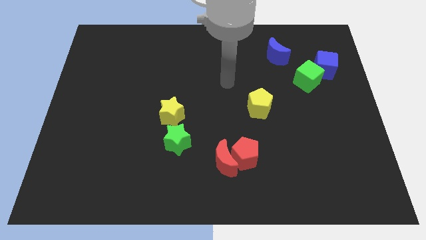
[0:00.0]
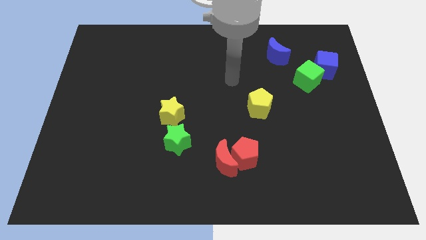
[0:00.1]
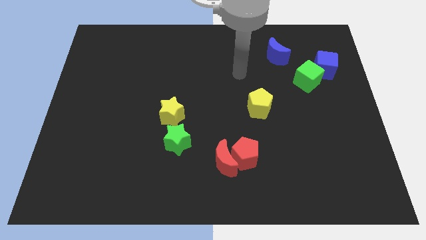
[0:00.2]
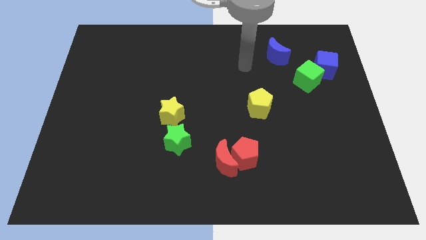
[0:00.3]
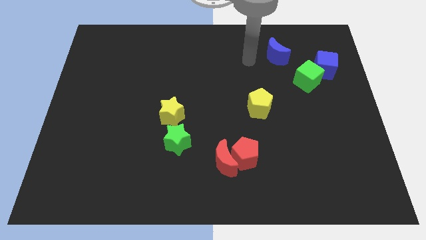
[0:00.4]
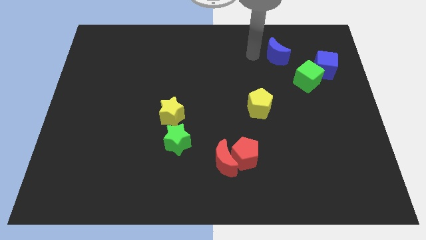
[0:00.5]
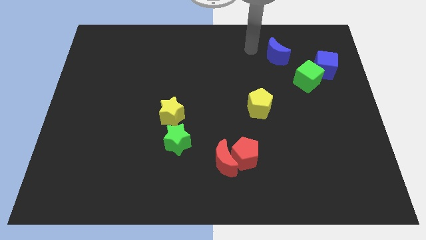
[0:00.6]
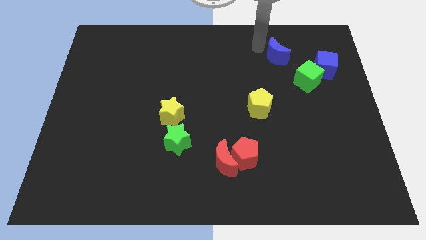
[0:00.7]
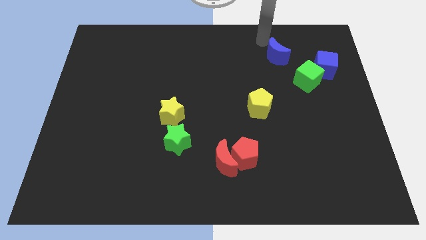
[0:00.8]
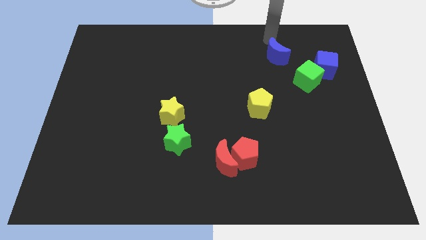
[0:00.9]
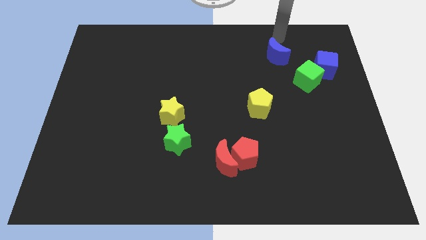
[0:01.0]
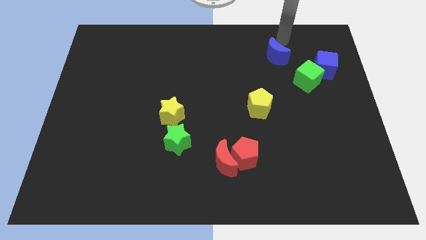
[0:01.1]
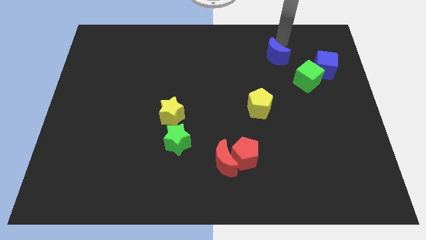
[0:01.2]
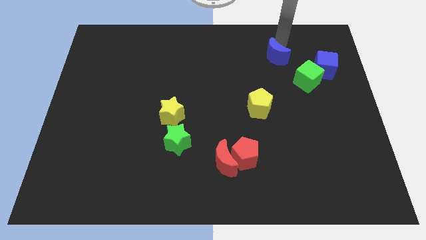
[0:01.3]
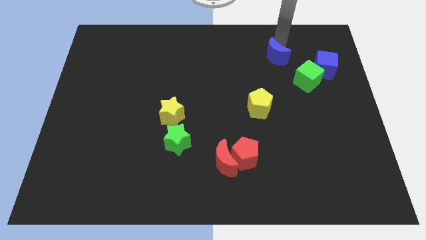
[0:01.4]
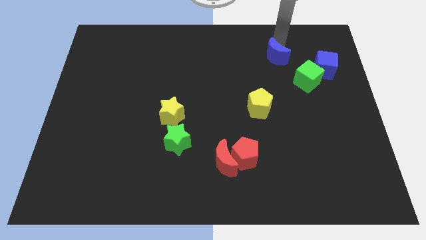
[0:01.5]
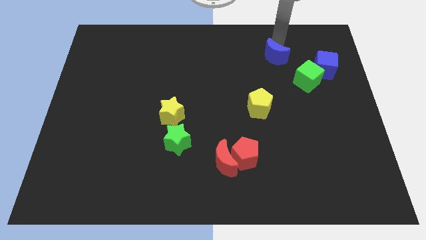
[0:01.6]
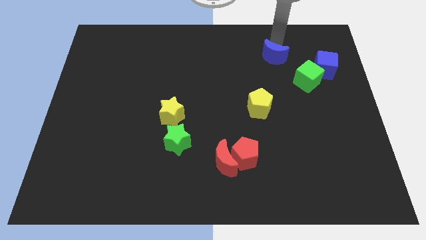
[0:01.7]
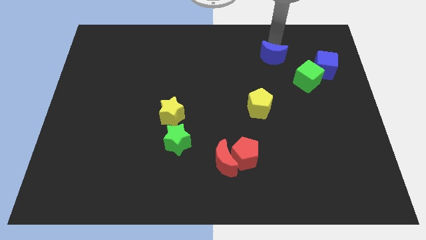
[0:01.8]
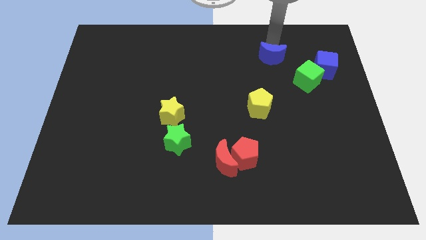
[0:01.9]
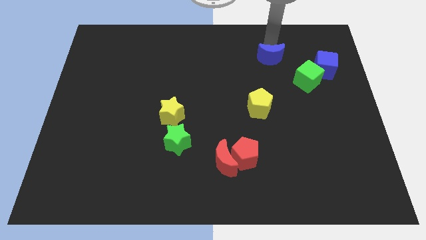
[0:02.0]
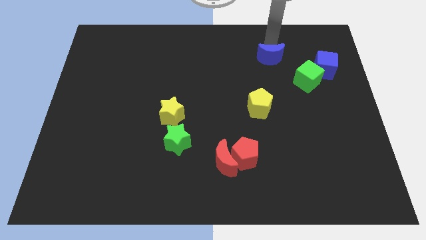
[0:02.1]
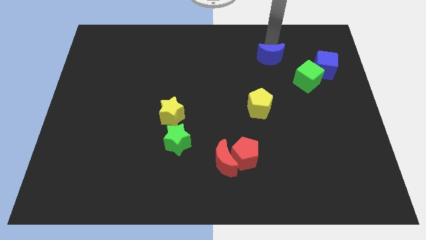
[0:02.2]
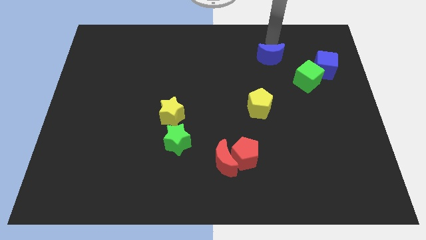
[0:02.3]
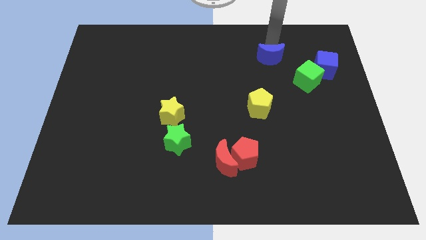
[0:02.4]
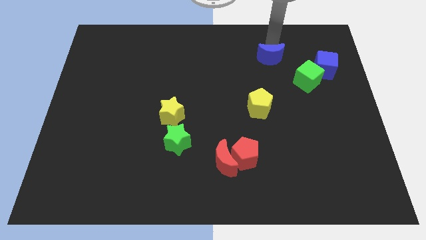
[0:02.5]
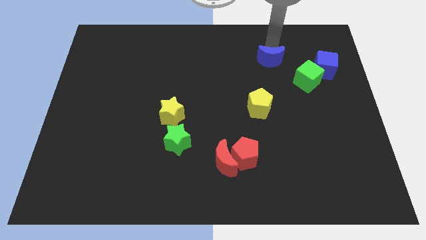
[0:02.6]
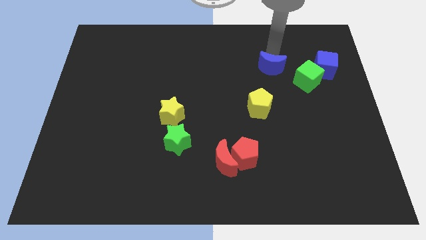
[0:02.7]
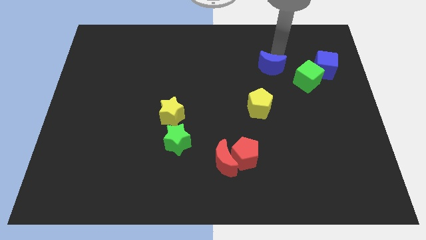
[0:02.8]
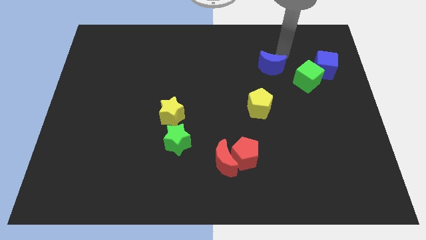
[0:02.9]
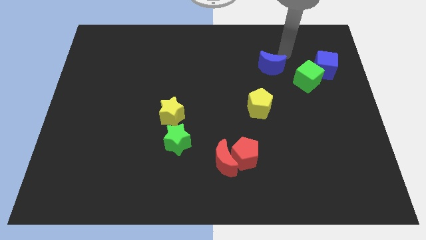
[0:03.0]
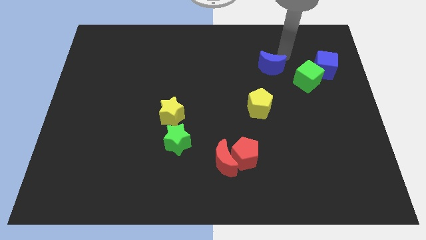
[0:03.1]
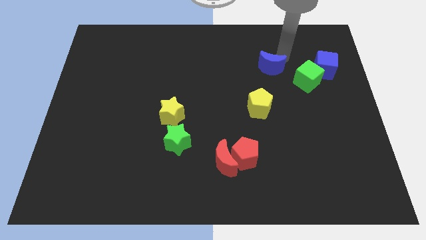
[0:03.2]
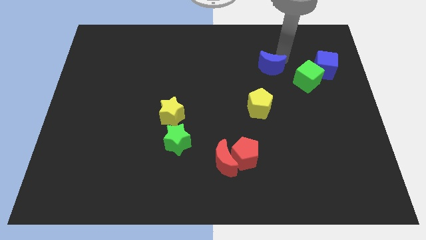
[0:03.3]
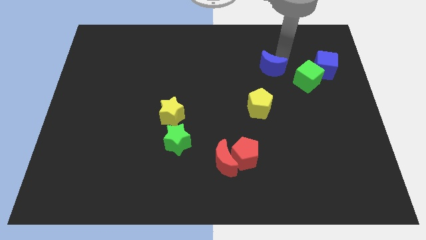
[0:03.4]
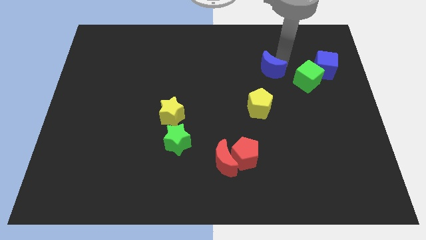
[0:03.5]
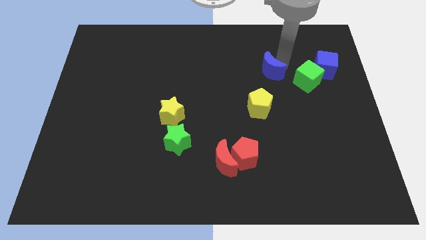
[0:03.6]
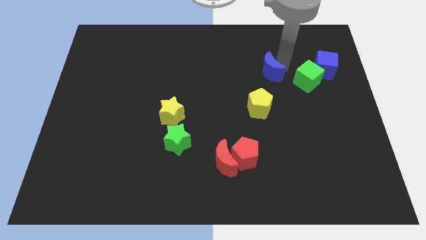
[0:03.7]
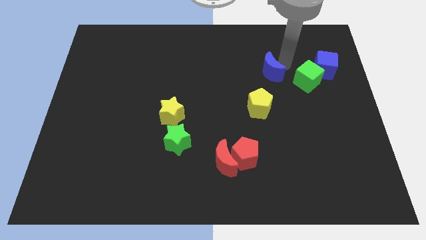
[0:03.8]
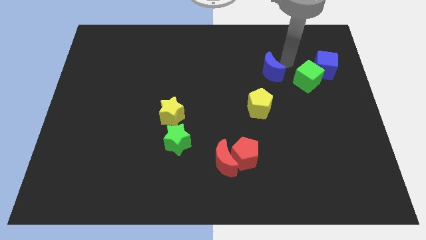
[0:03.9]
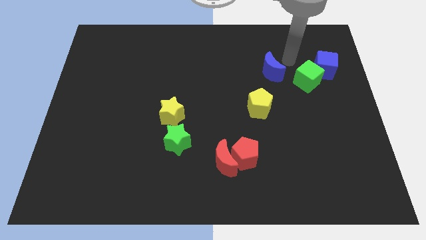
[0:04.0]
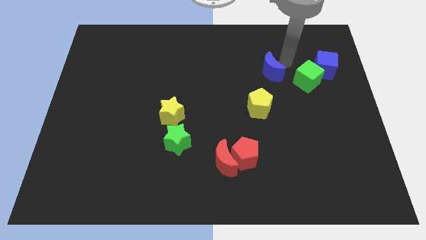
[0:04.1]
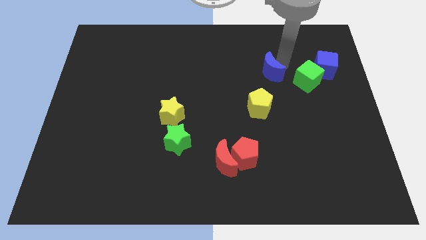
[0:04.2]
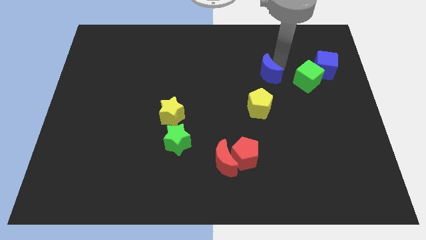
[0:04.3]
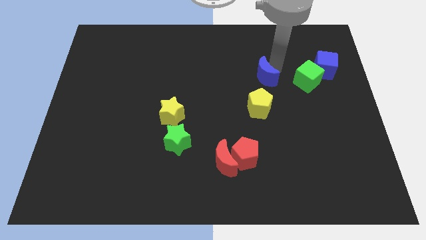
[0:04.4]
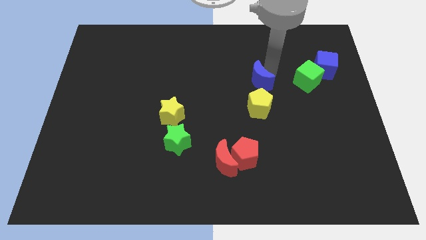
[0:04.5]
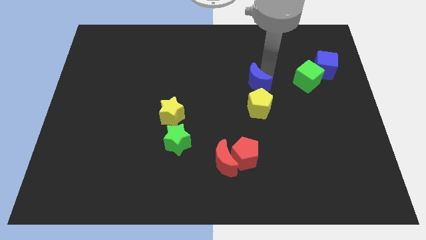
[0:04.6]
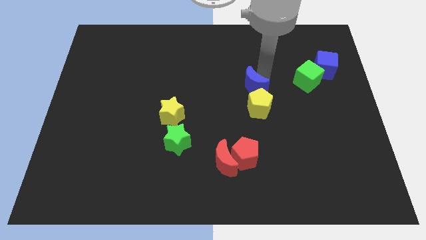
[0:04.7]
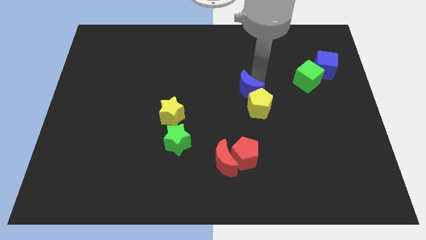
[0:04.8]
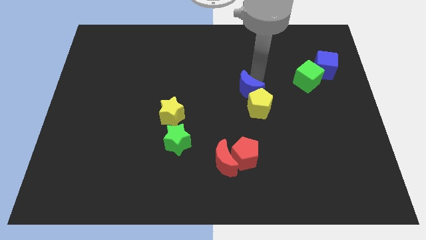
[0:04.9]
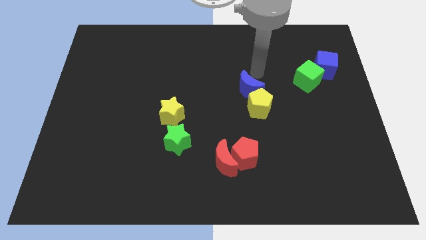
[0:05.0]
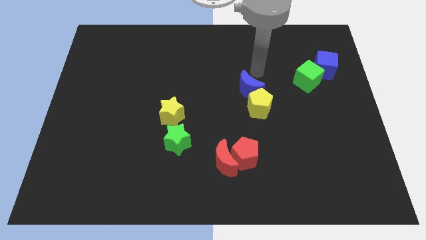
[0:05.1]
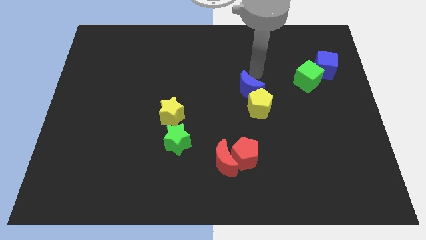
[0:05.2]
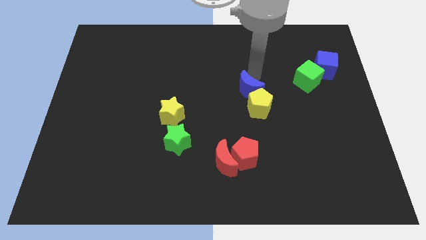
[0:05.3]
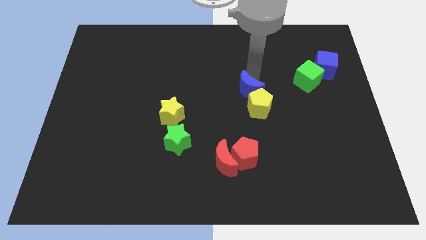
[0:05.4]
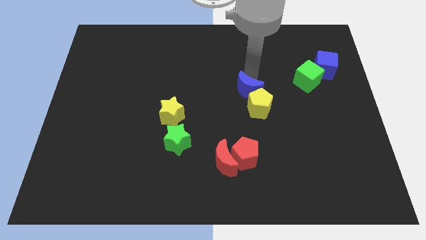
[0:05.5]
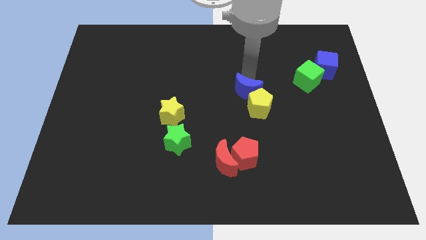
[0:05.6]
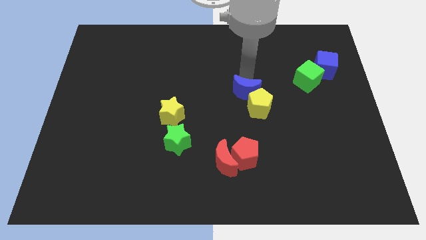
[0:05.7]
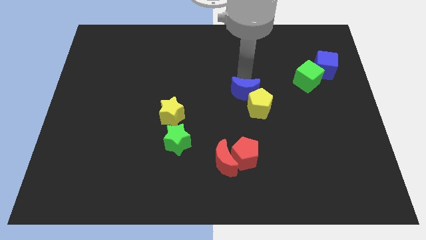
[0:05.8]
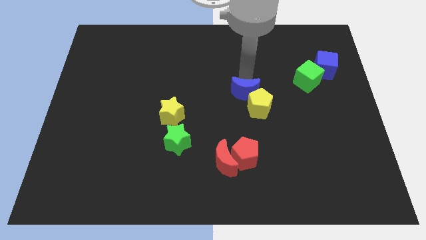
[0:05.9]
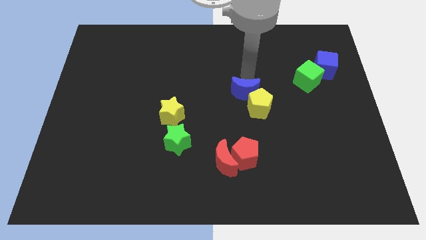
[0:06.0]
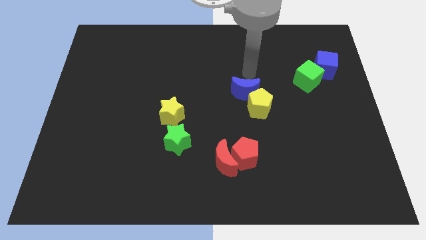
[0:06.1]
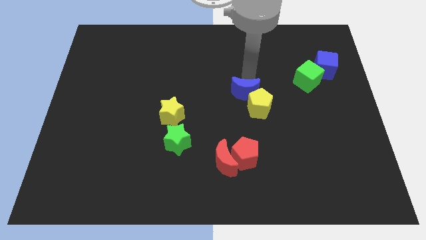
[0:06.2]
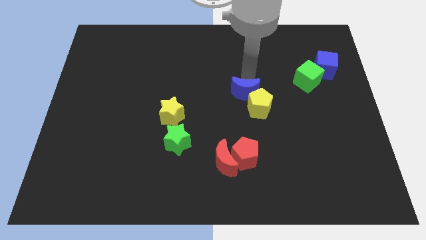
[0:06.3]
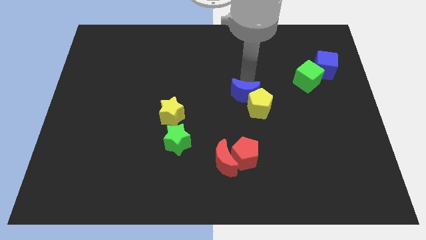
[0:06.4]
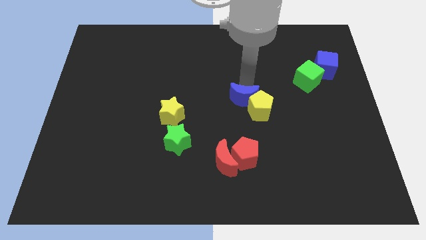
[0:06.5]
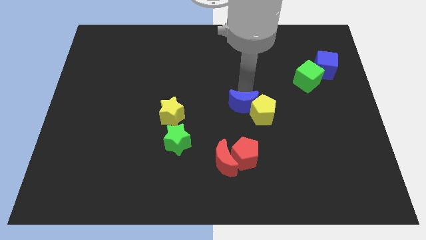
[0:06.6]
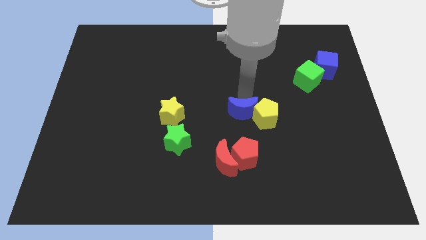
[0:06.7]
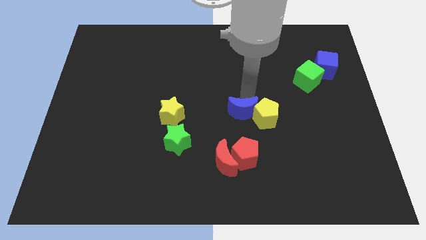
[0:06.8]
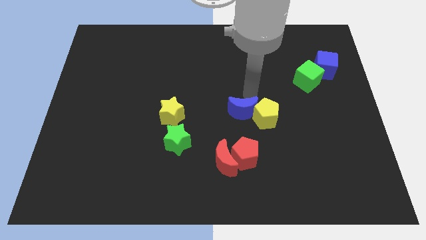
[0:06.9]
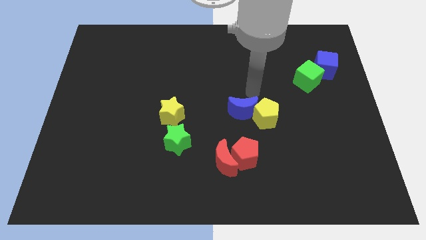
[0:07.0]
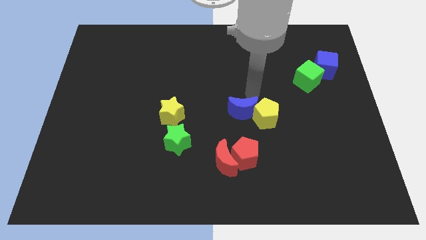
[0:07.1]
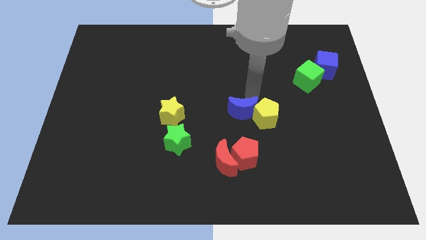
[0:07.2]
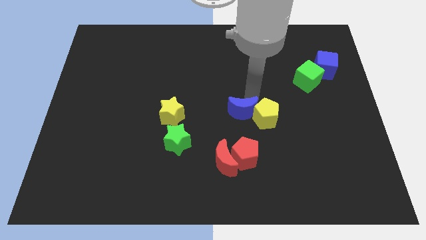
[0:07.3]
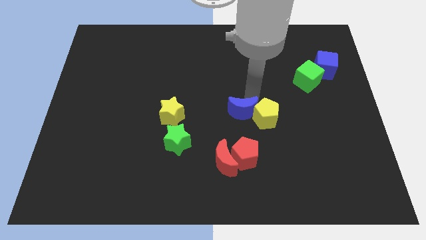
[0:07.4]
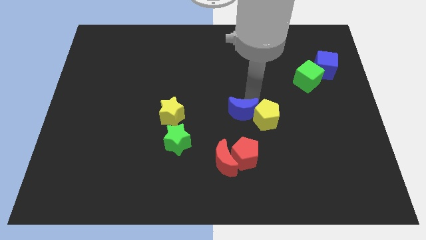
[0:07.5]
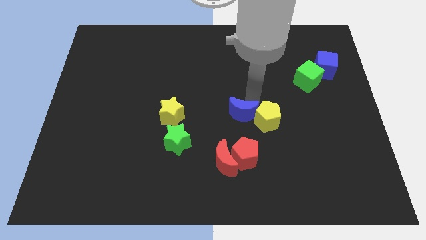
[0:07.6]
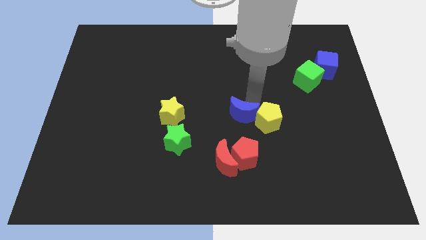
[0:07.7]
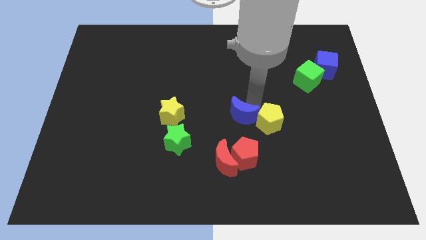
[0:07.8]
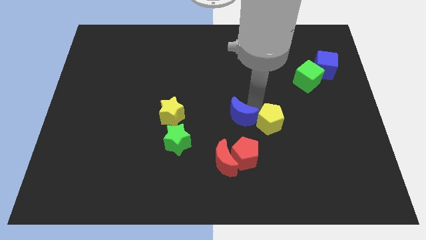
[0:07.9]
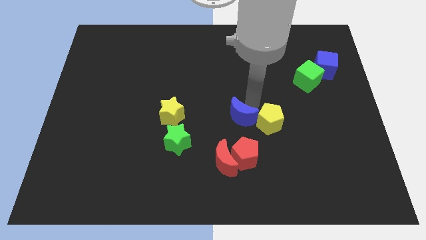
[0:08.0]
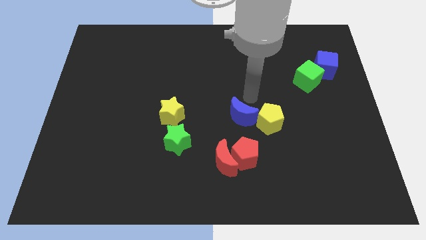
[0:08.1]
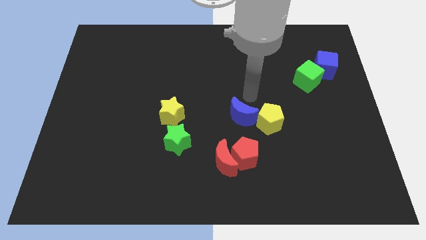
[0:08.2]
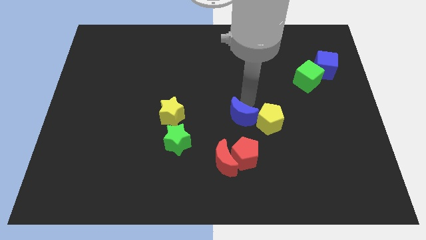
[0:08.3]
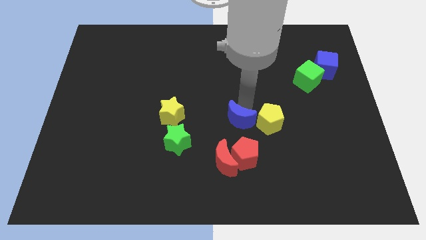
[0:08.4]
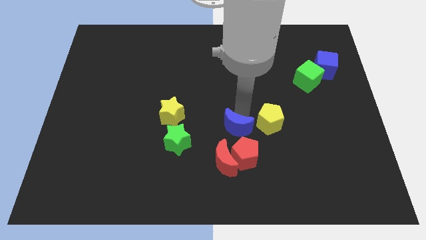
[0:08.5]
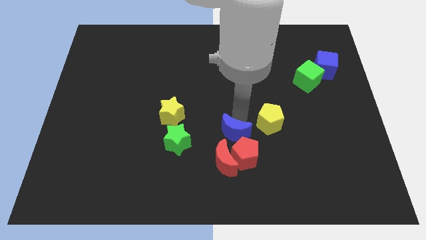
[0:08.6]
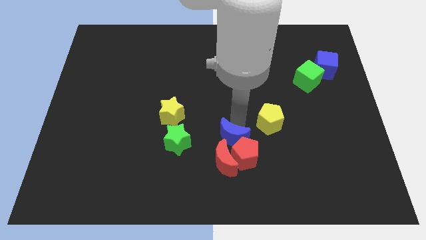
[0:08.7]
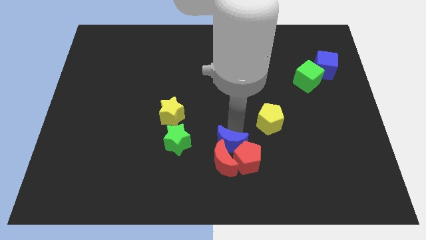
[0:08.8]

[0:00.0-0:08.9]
push the blue moon close to the red moon
